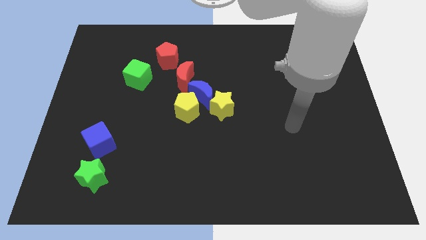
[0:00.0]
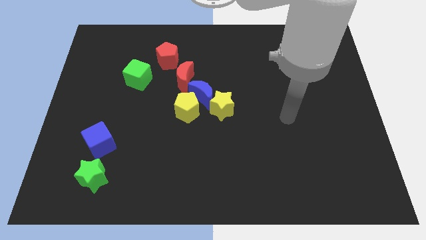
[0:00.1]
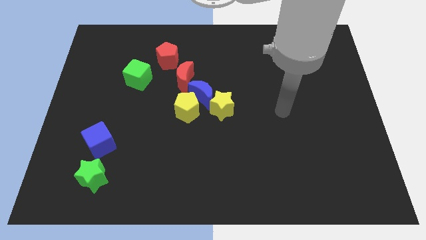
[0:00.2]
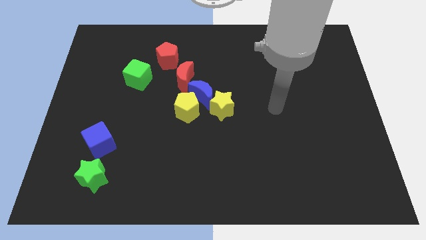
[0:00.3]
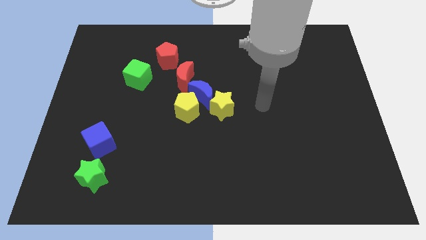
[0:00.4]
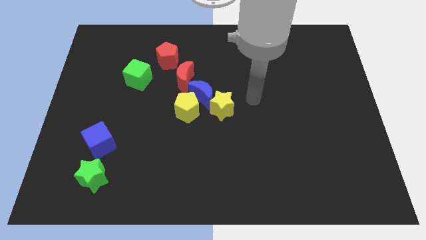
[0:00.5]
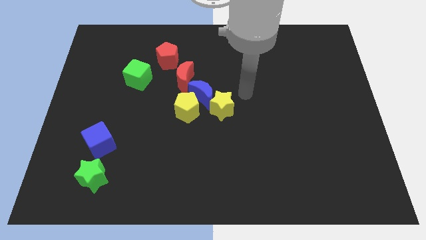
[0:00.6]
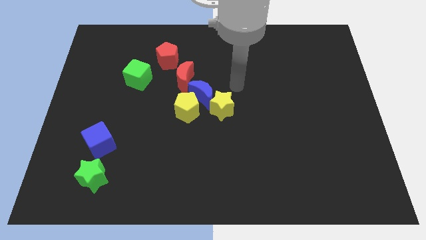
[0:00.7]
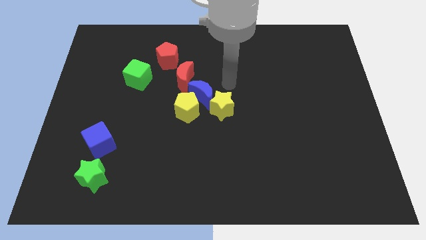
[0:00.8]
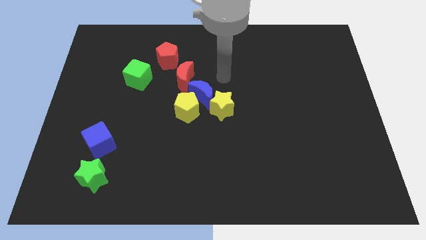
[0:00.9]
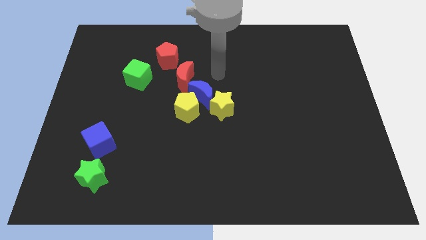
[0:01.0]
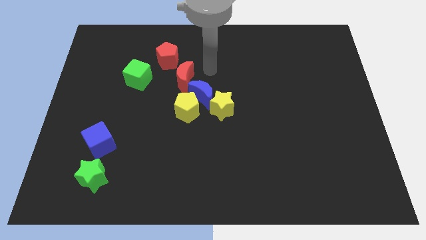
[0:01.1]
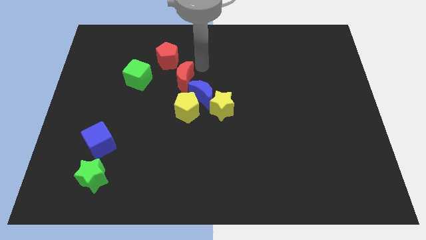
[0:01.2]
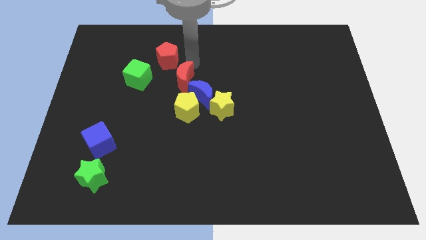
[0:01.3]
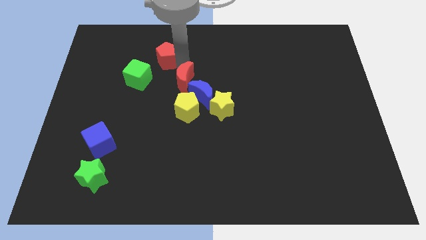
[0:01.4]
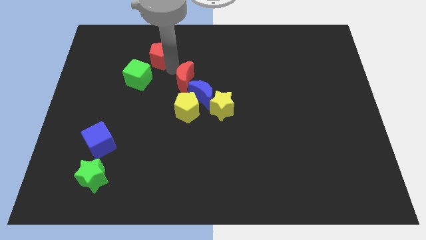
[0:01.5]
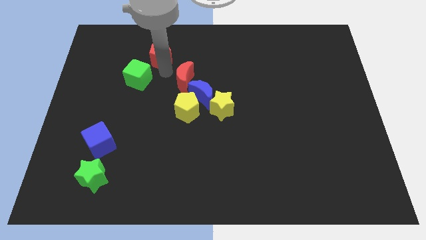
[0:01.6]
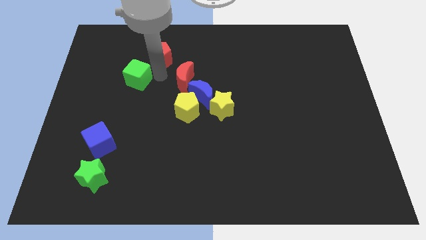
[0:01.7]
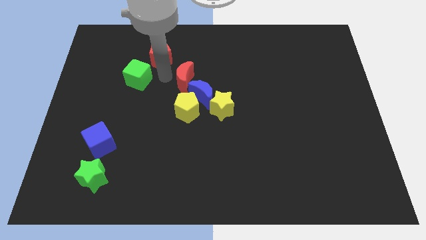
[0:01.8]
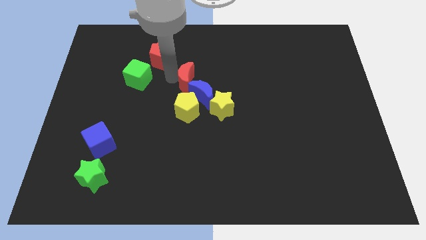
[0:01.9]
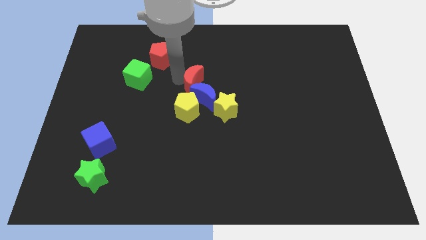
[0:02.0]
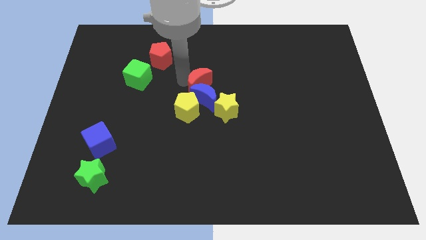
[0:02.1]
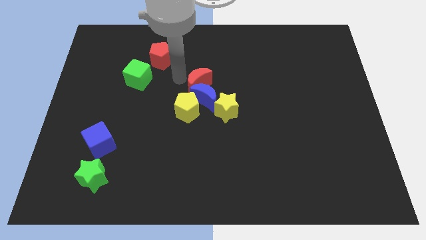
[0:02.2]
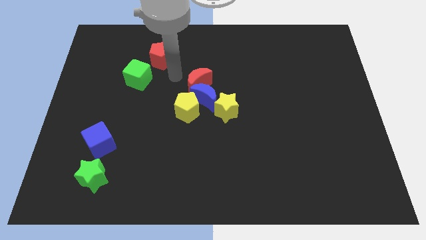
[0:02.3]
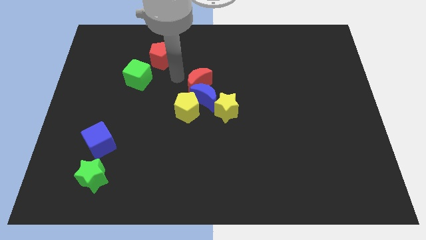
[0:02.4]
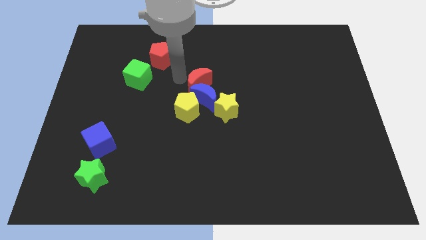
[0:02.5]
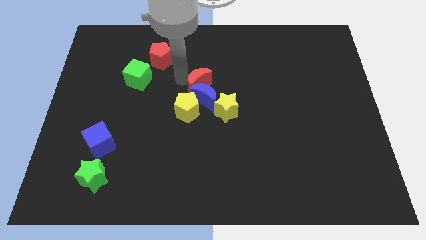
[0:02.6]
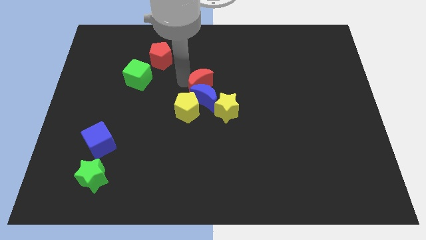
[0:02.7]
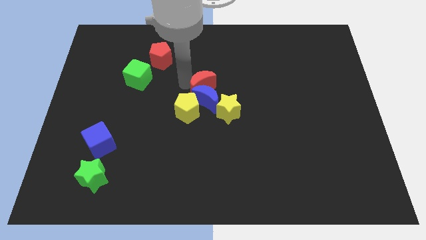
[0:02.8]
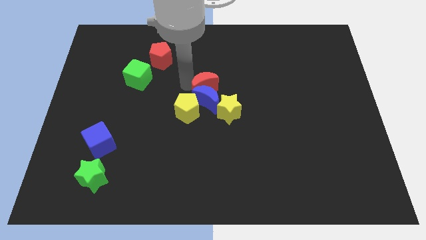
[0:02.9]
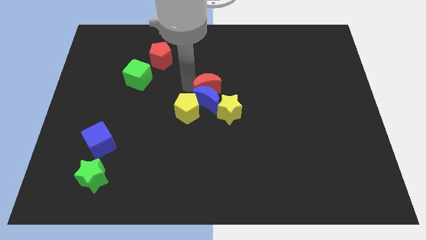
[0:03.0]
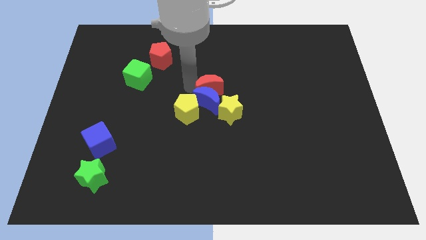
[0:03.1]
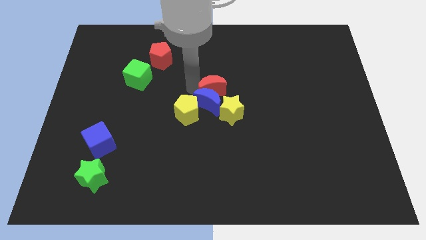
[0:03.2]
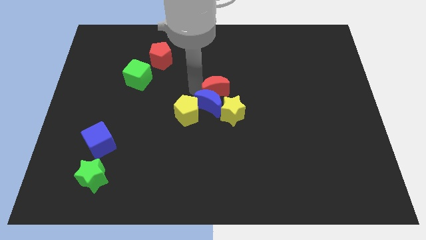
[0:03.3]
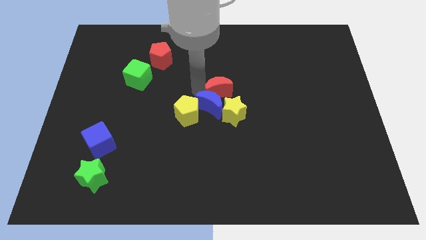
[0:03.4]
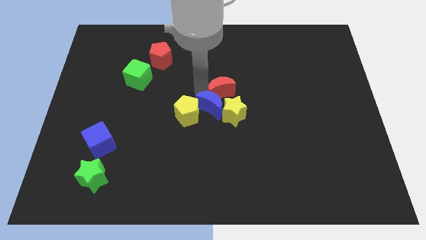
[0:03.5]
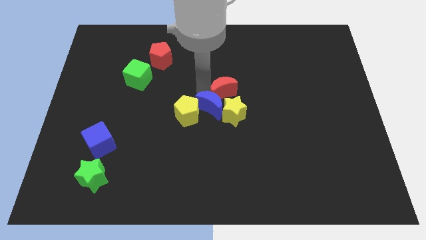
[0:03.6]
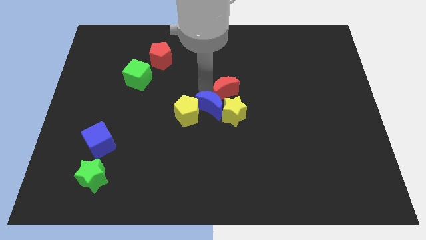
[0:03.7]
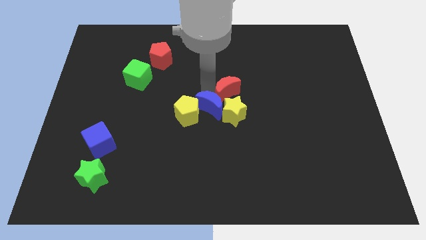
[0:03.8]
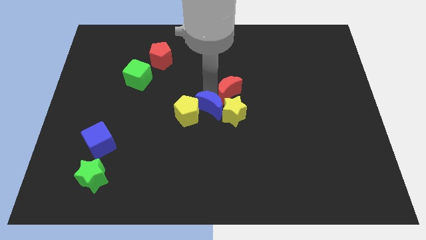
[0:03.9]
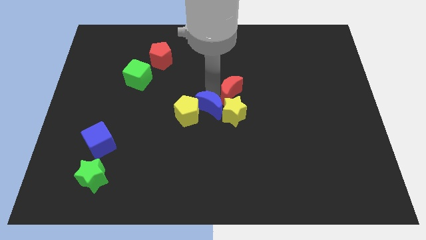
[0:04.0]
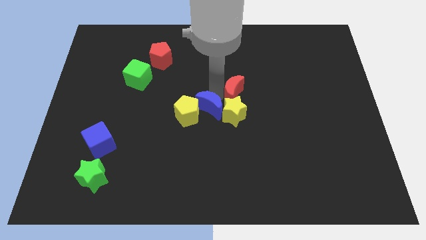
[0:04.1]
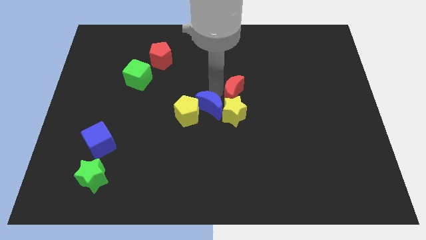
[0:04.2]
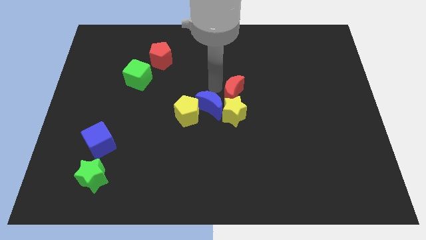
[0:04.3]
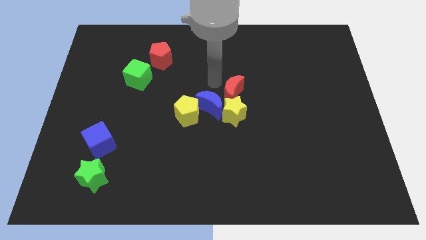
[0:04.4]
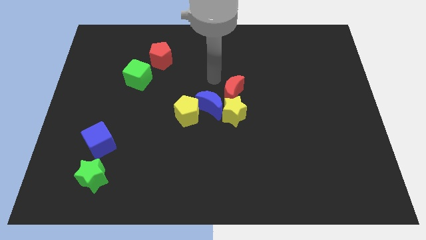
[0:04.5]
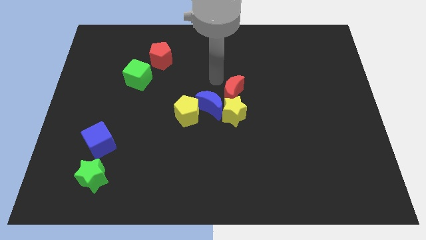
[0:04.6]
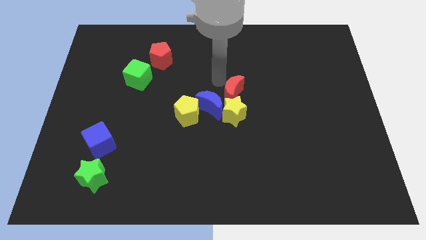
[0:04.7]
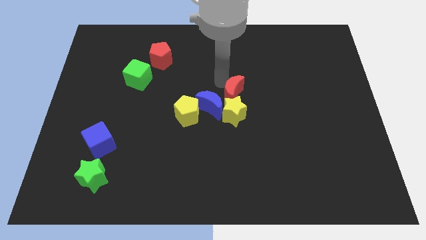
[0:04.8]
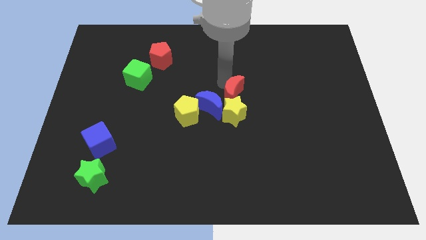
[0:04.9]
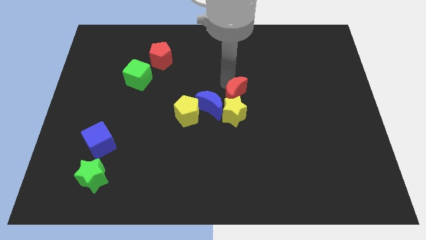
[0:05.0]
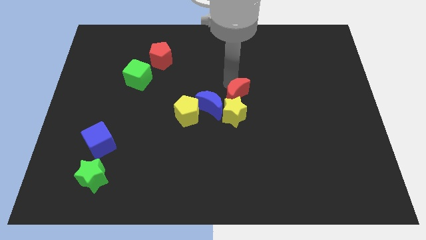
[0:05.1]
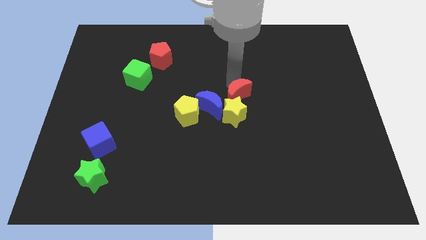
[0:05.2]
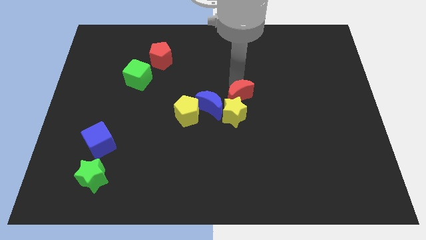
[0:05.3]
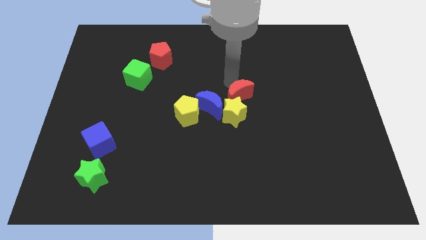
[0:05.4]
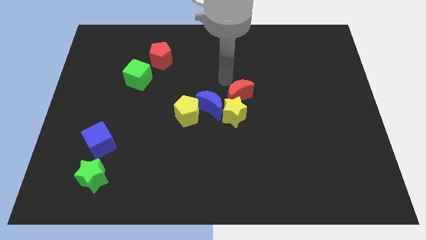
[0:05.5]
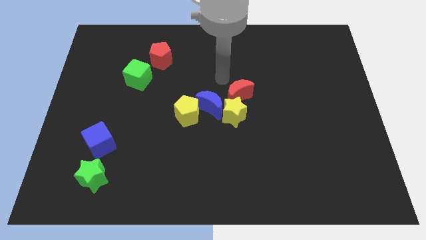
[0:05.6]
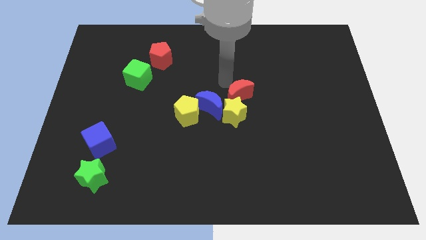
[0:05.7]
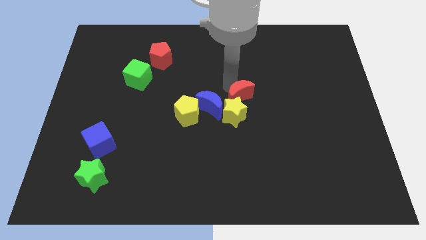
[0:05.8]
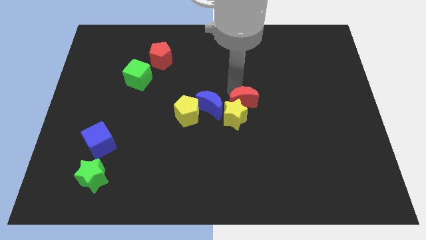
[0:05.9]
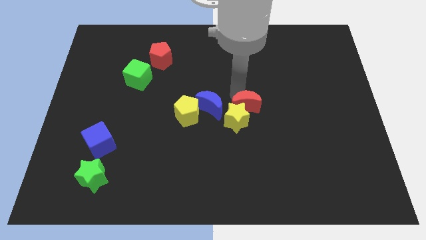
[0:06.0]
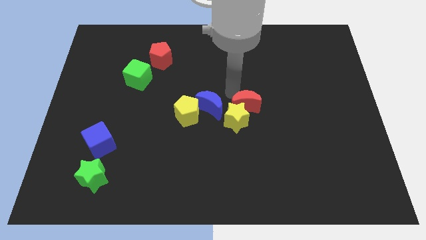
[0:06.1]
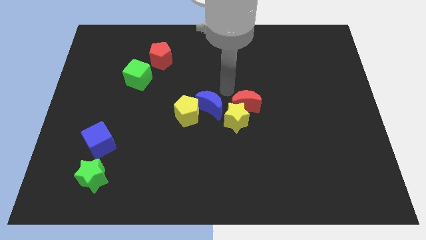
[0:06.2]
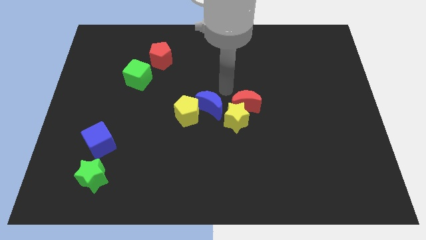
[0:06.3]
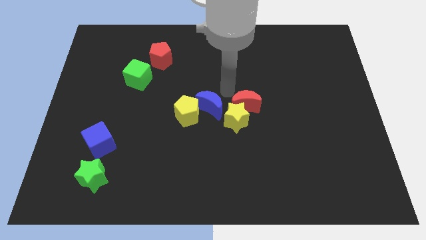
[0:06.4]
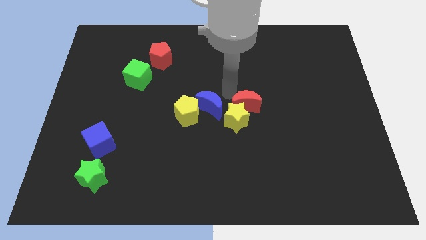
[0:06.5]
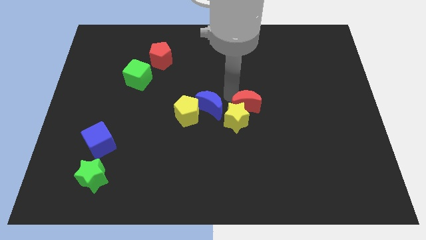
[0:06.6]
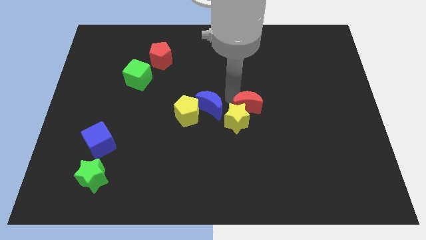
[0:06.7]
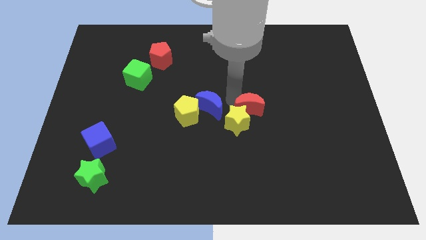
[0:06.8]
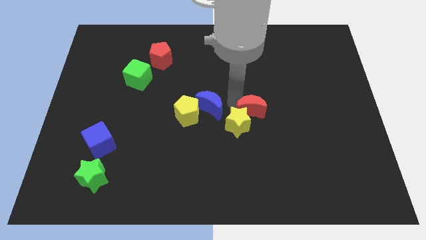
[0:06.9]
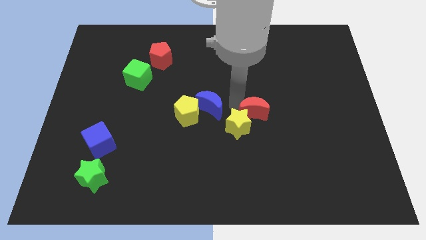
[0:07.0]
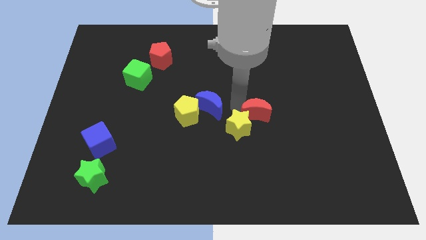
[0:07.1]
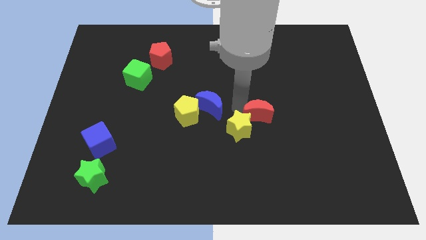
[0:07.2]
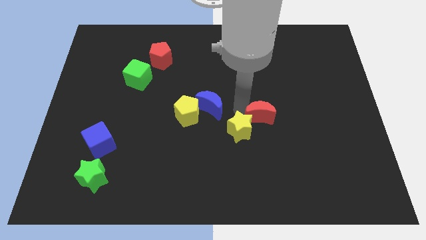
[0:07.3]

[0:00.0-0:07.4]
move the red moon downwards and then right

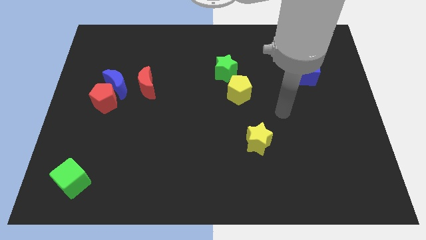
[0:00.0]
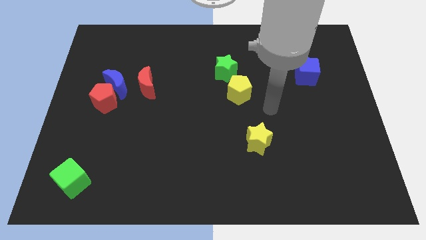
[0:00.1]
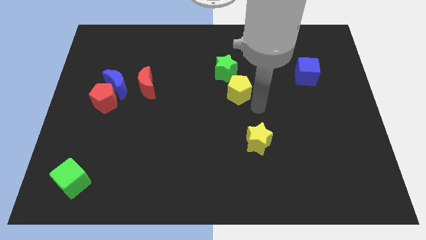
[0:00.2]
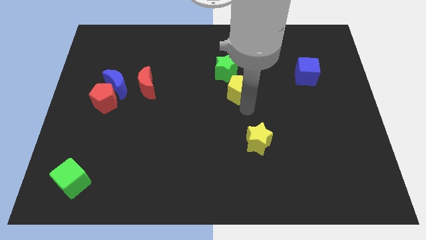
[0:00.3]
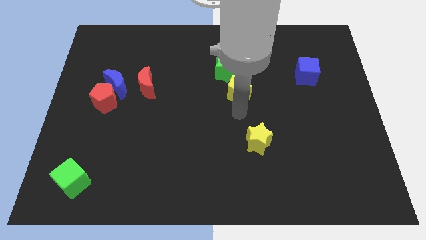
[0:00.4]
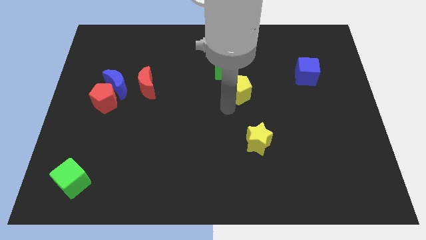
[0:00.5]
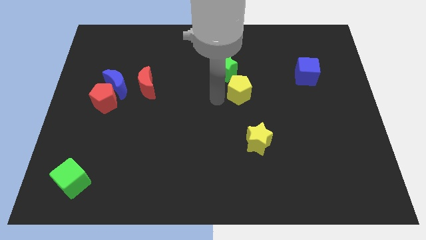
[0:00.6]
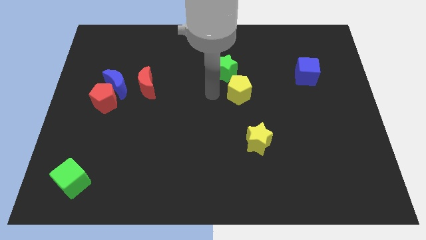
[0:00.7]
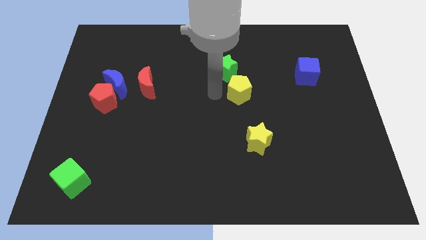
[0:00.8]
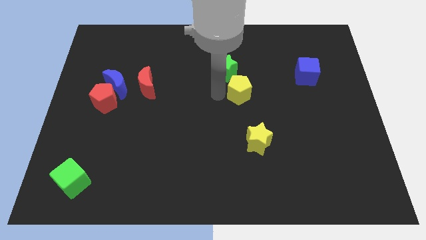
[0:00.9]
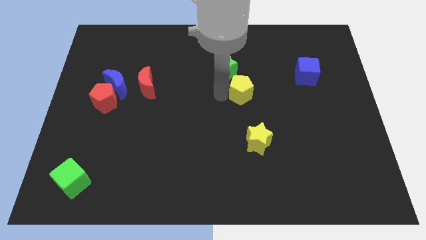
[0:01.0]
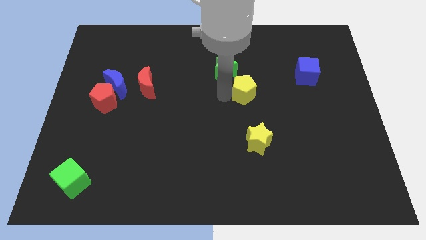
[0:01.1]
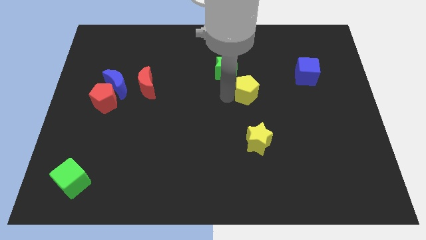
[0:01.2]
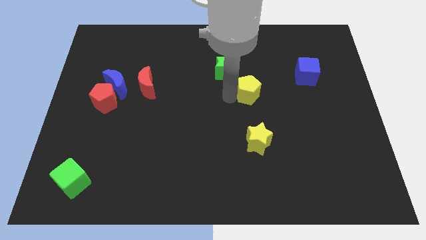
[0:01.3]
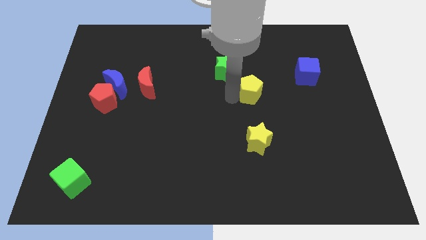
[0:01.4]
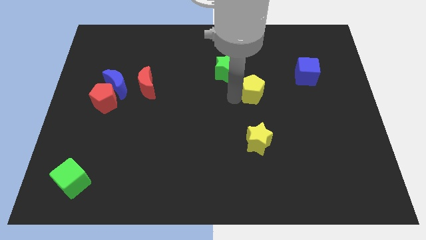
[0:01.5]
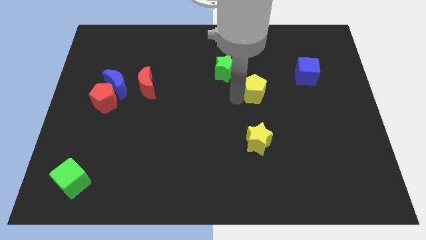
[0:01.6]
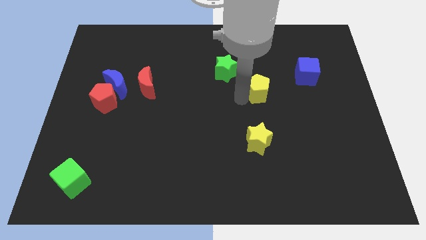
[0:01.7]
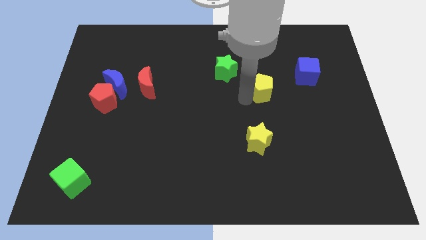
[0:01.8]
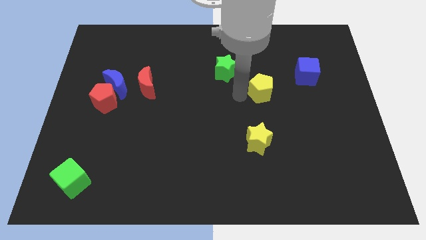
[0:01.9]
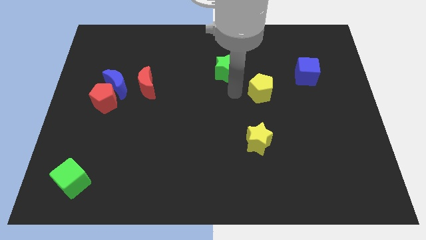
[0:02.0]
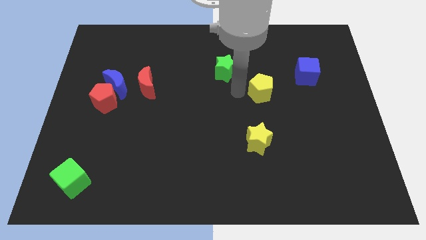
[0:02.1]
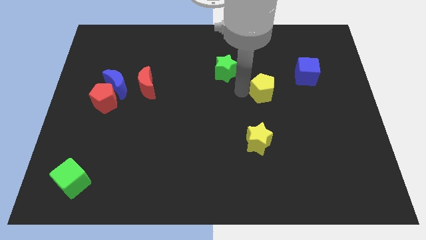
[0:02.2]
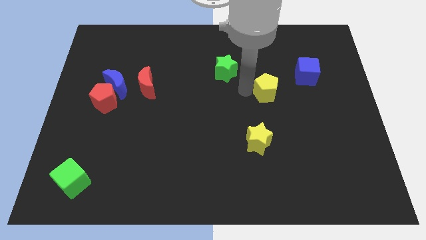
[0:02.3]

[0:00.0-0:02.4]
move the yellow pentagon right a little
